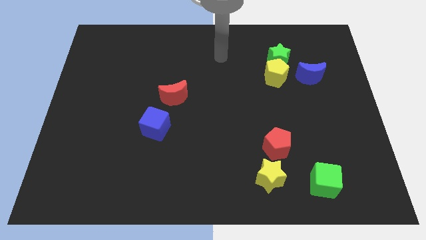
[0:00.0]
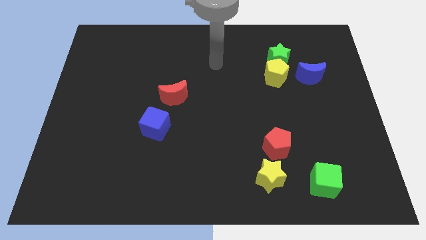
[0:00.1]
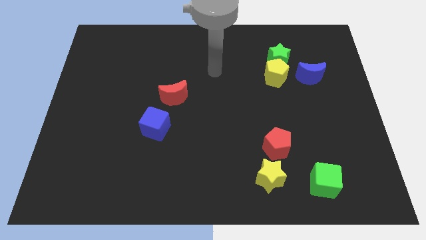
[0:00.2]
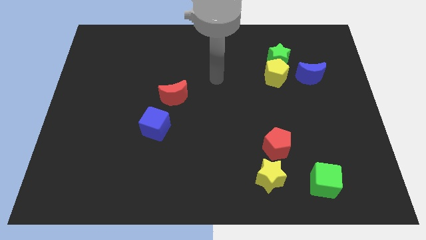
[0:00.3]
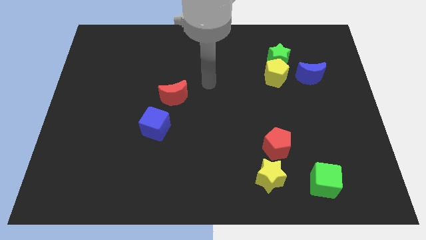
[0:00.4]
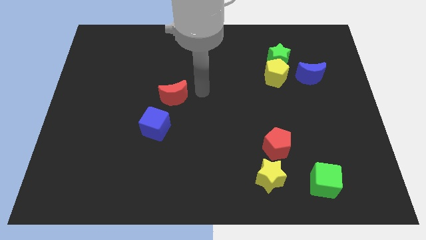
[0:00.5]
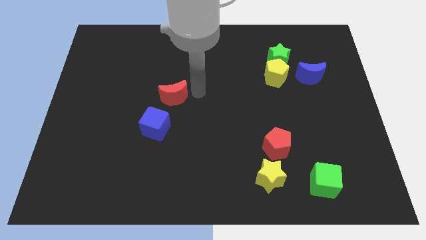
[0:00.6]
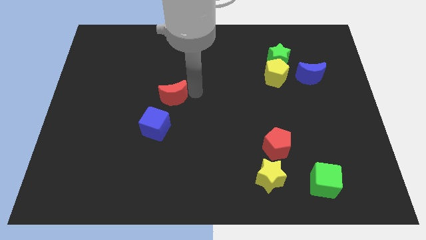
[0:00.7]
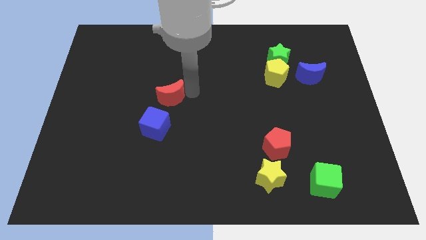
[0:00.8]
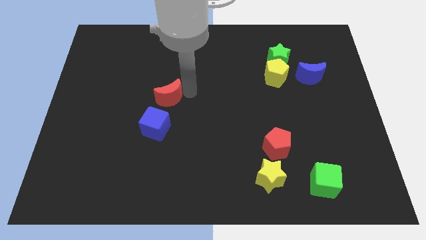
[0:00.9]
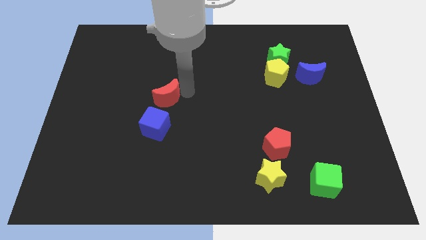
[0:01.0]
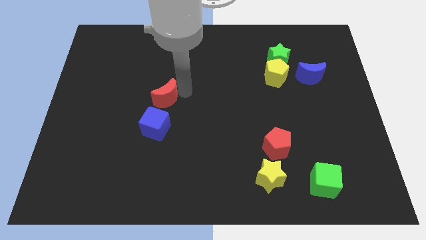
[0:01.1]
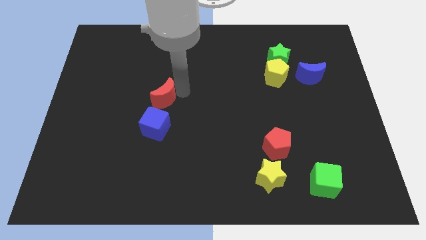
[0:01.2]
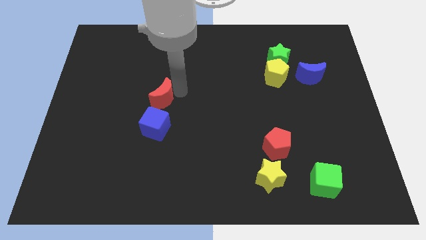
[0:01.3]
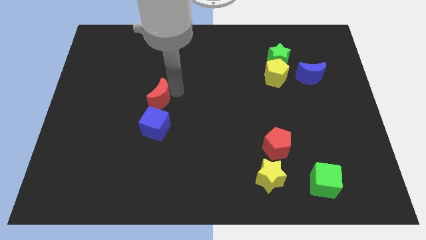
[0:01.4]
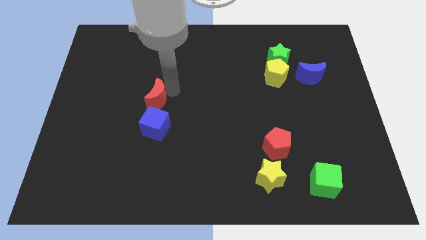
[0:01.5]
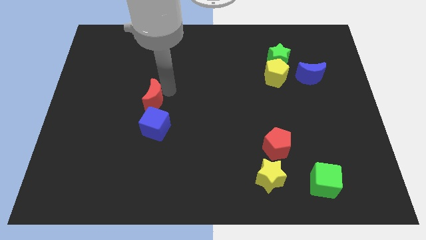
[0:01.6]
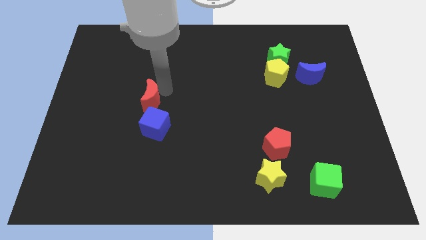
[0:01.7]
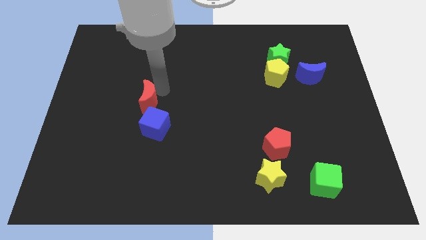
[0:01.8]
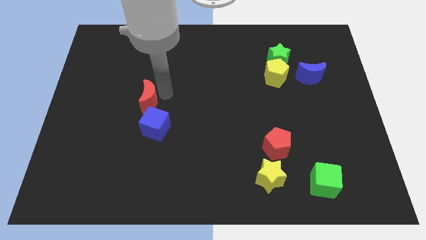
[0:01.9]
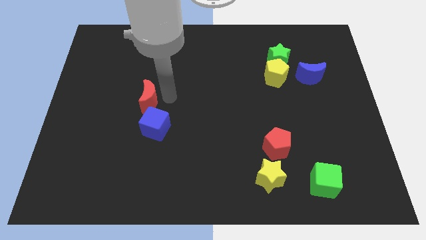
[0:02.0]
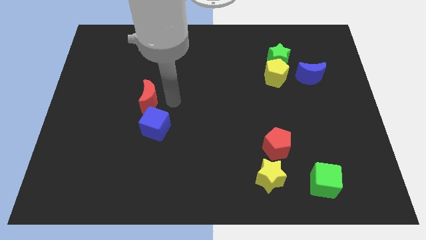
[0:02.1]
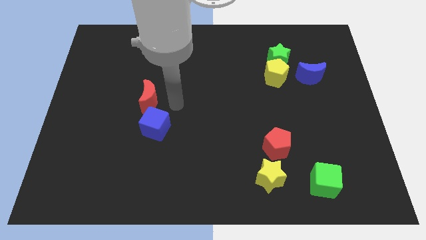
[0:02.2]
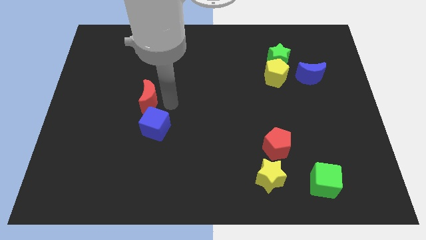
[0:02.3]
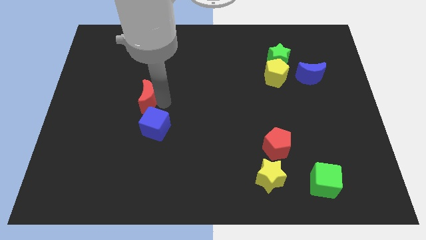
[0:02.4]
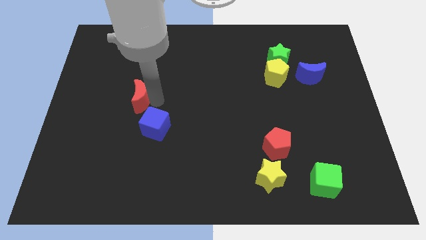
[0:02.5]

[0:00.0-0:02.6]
slide the red moon to the left a little bit

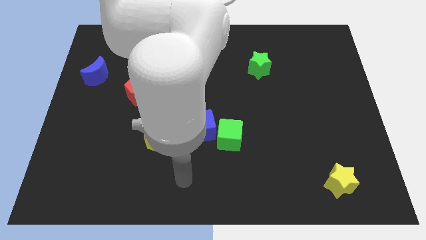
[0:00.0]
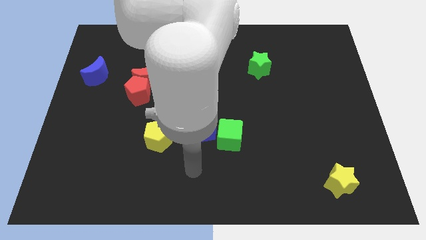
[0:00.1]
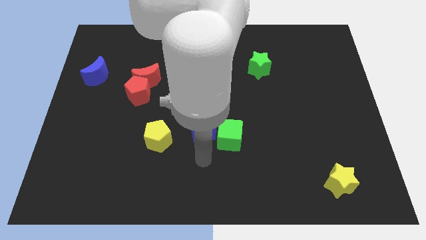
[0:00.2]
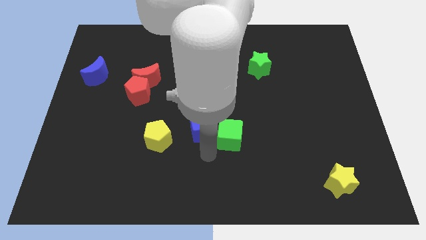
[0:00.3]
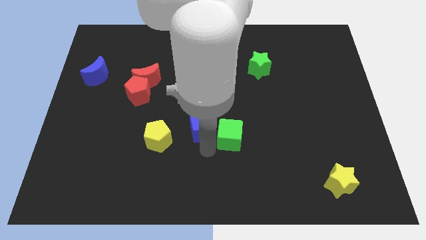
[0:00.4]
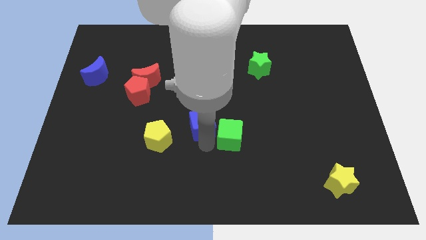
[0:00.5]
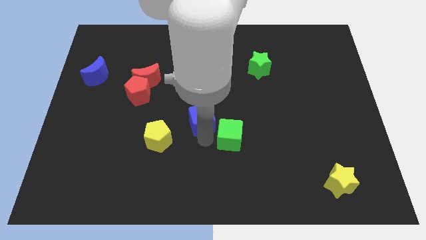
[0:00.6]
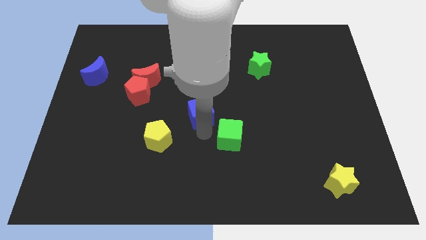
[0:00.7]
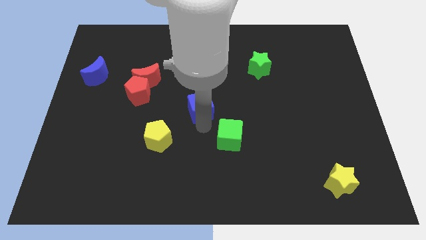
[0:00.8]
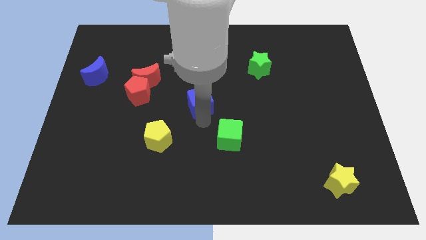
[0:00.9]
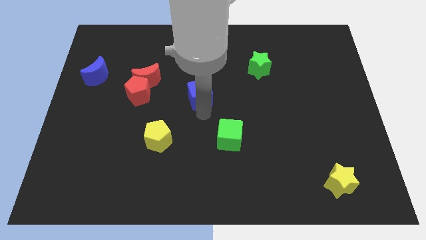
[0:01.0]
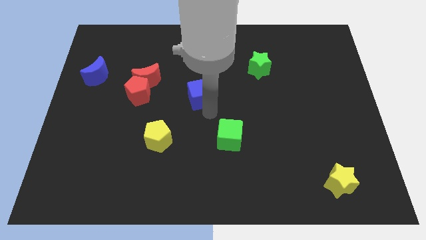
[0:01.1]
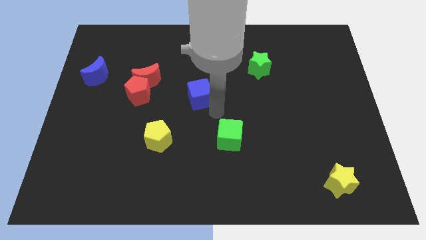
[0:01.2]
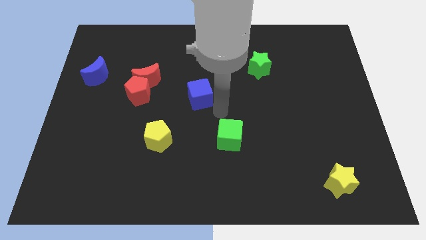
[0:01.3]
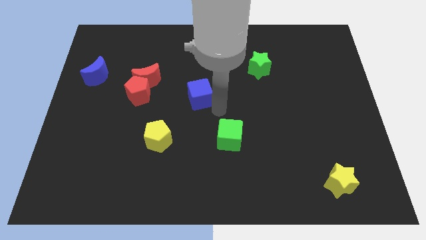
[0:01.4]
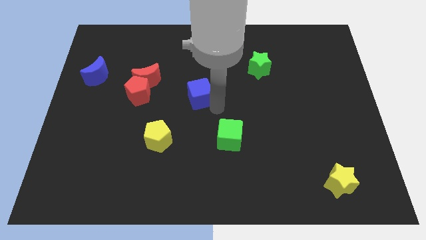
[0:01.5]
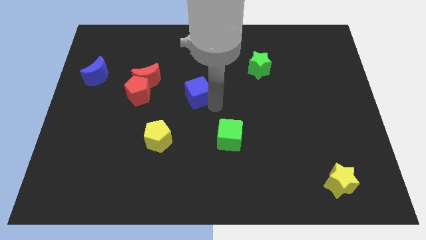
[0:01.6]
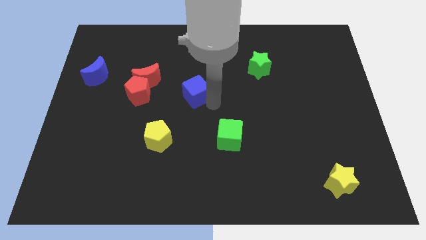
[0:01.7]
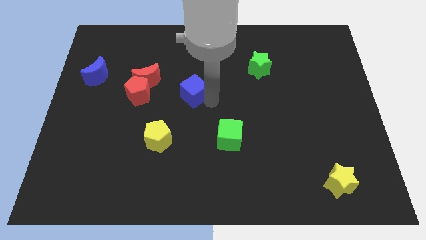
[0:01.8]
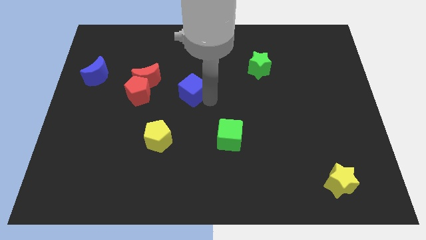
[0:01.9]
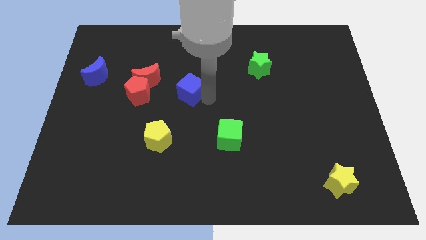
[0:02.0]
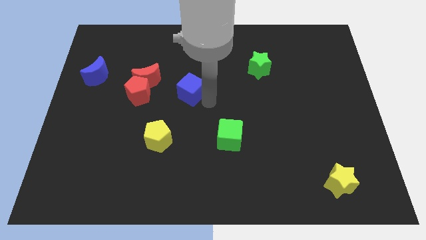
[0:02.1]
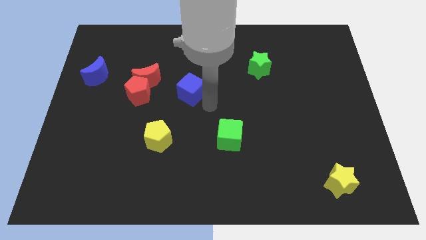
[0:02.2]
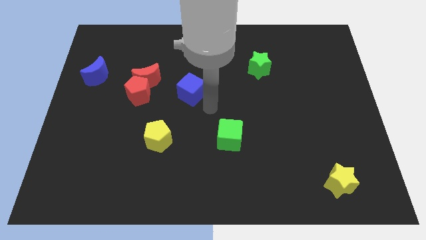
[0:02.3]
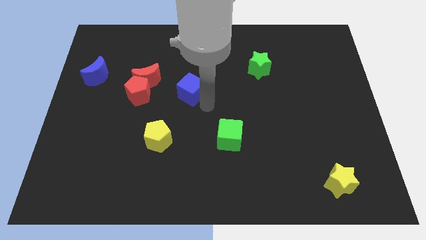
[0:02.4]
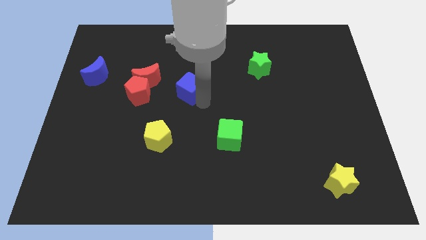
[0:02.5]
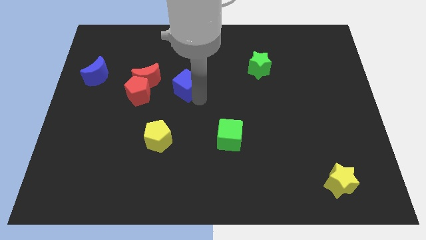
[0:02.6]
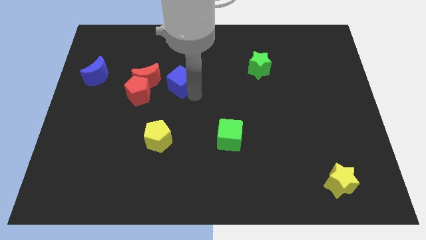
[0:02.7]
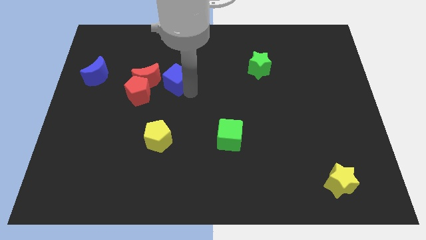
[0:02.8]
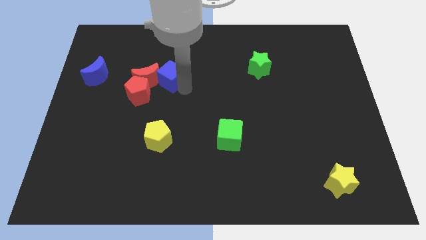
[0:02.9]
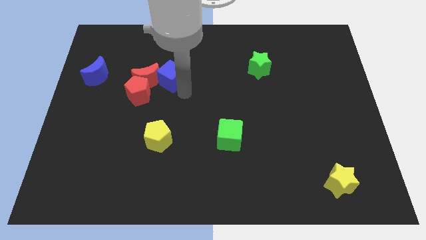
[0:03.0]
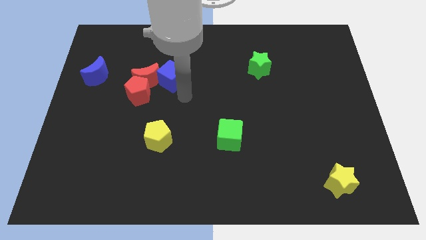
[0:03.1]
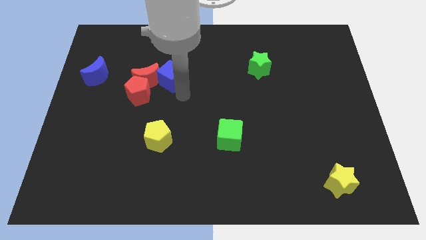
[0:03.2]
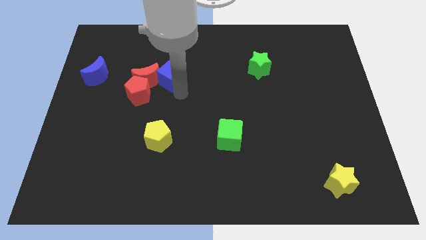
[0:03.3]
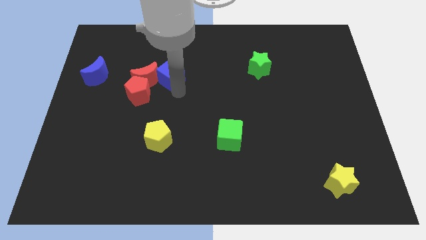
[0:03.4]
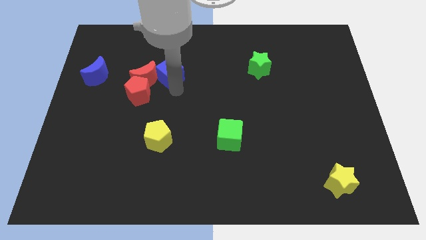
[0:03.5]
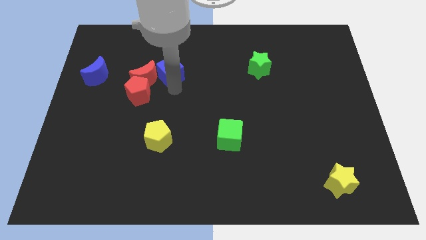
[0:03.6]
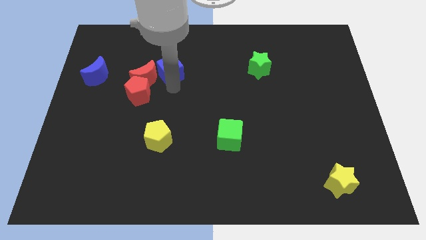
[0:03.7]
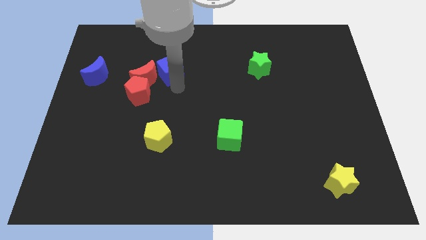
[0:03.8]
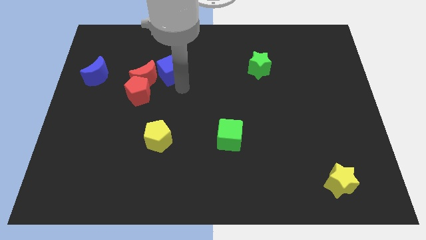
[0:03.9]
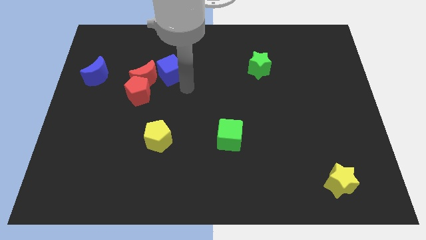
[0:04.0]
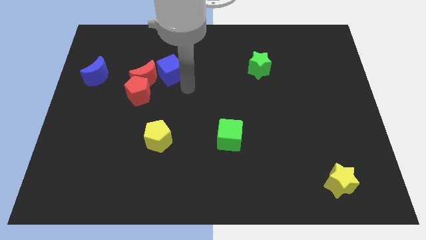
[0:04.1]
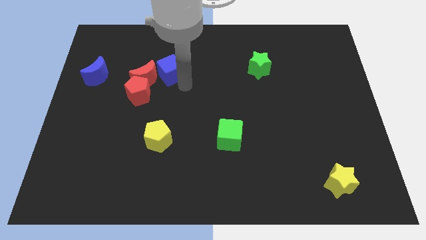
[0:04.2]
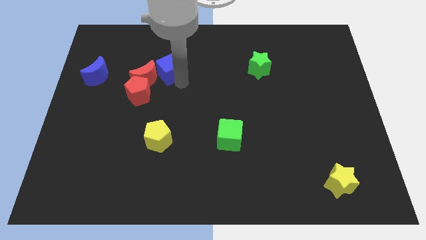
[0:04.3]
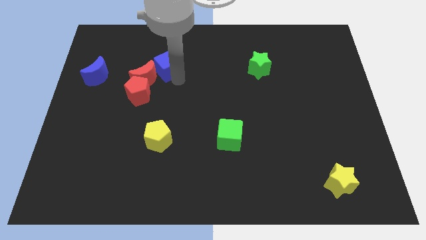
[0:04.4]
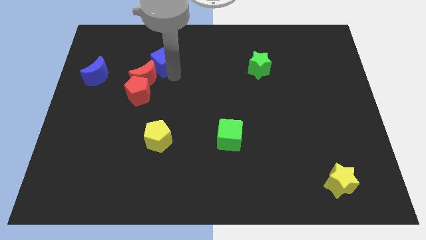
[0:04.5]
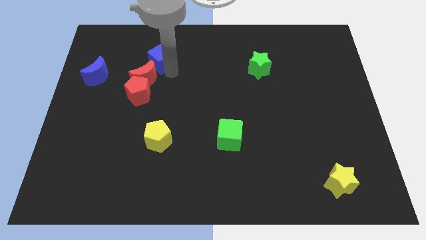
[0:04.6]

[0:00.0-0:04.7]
move the blue cube up and left diagonally

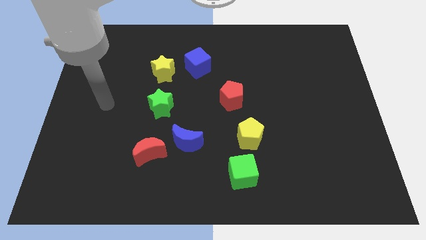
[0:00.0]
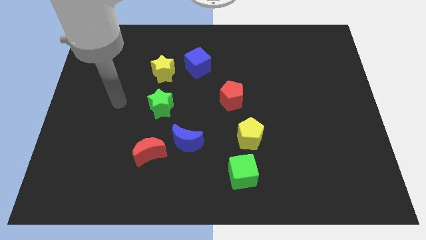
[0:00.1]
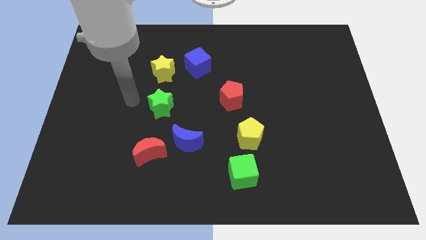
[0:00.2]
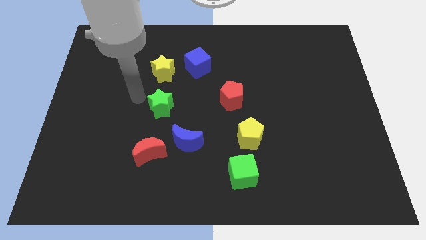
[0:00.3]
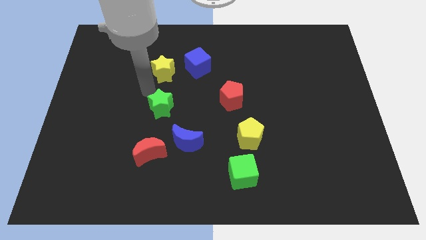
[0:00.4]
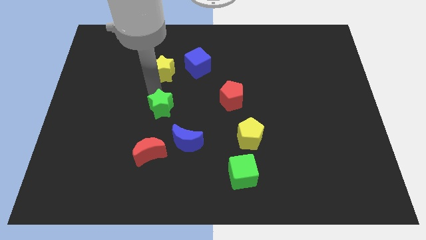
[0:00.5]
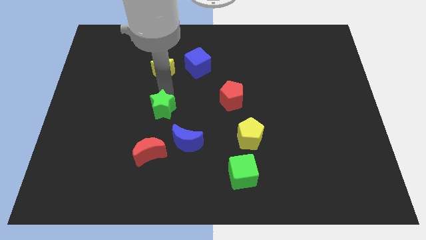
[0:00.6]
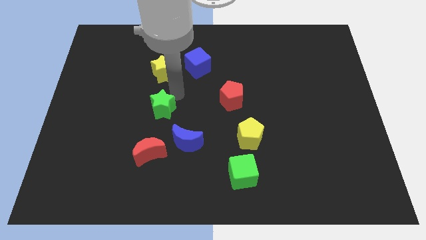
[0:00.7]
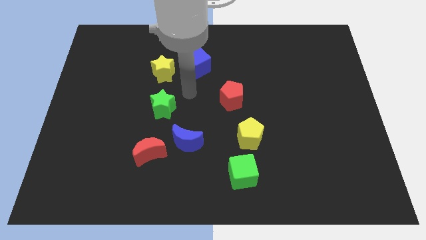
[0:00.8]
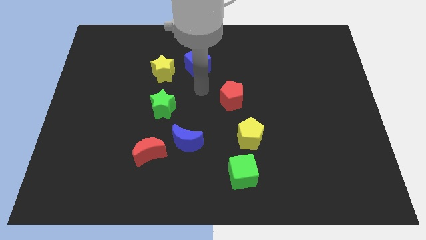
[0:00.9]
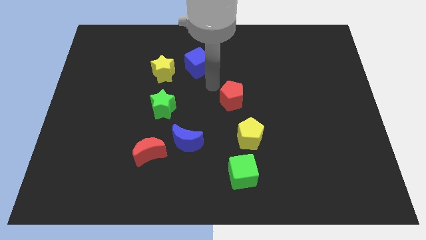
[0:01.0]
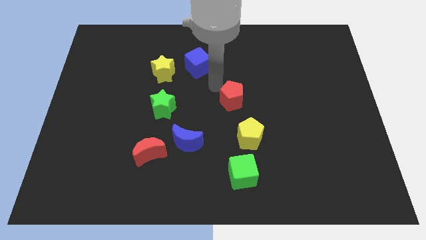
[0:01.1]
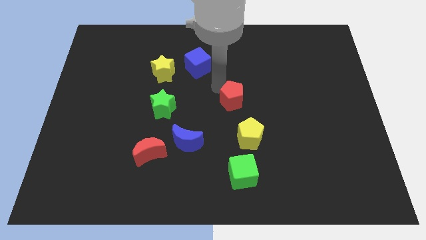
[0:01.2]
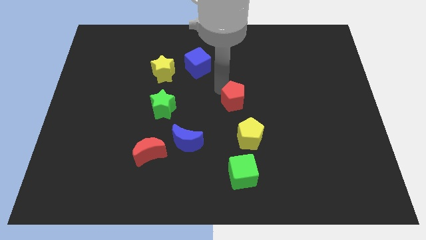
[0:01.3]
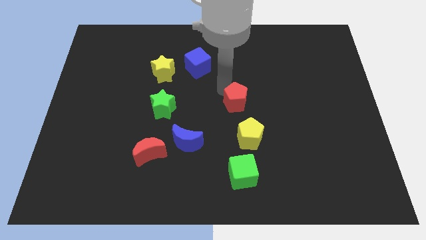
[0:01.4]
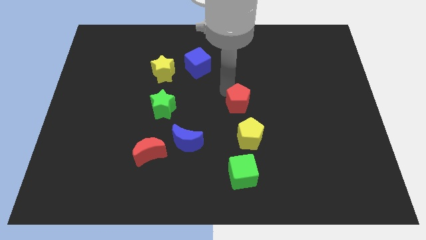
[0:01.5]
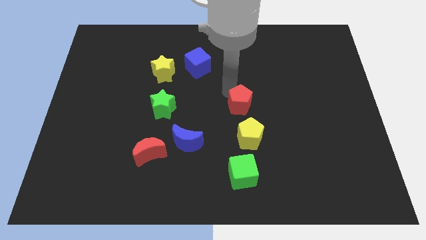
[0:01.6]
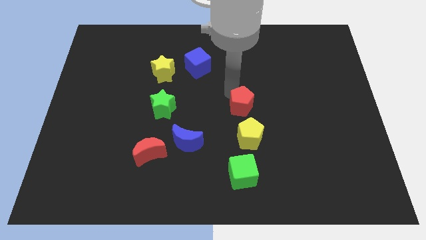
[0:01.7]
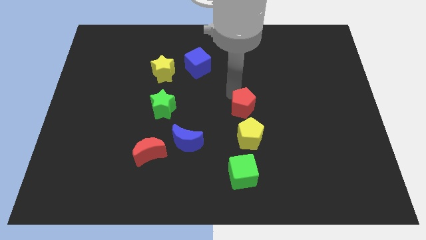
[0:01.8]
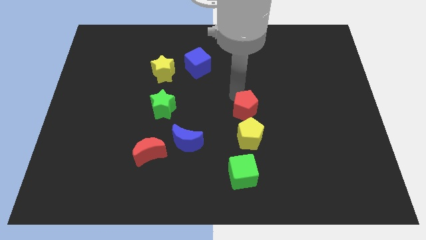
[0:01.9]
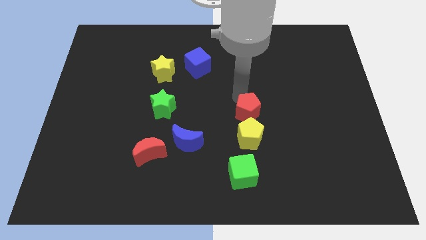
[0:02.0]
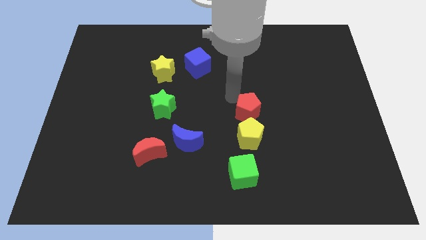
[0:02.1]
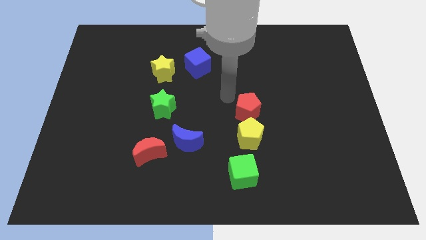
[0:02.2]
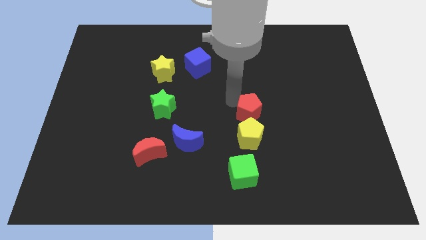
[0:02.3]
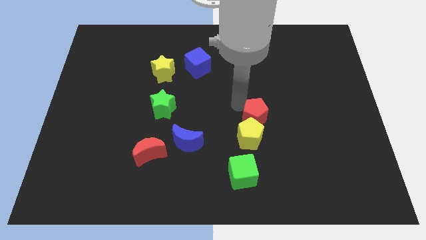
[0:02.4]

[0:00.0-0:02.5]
move the red pentagon down and to the right diagonally a little
